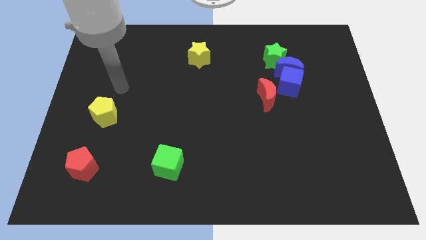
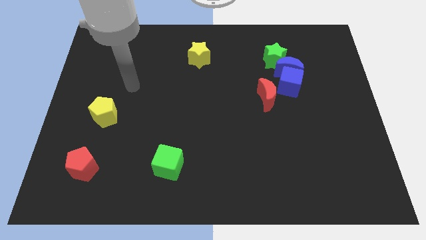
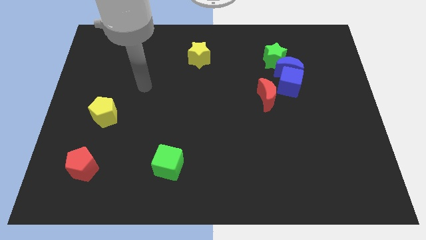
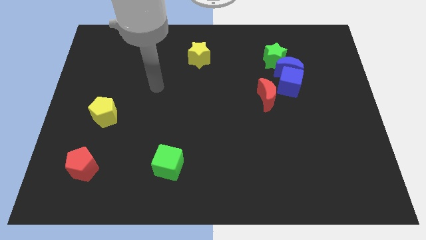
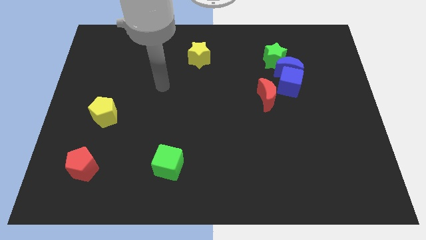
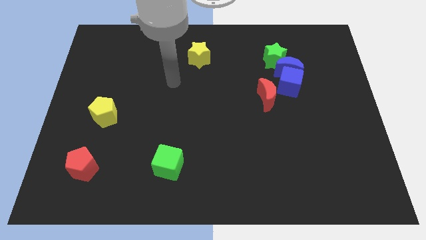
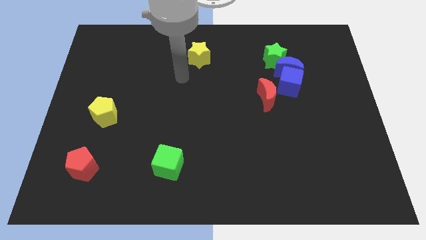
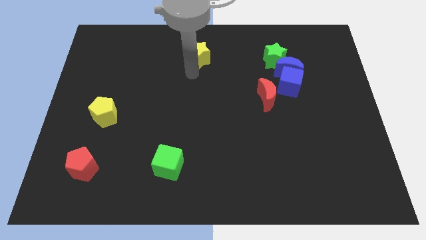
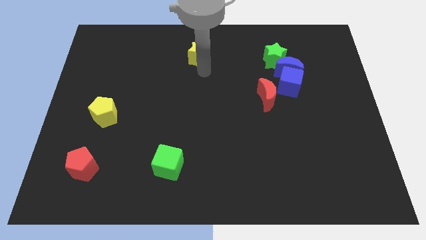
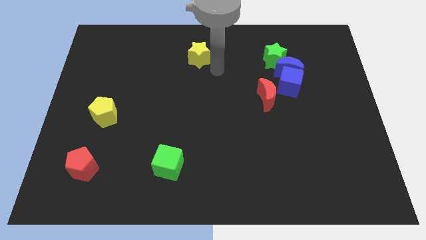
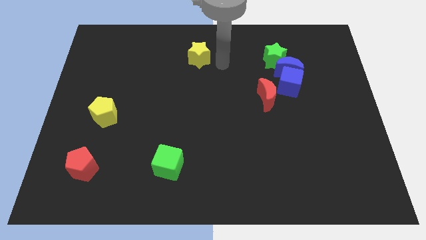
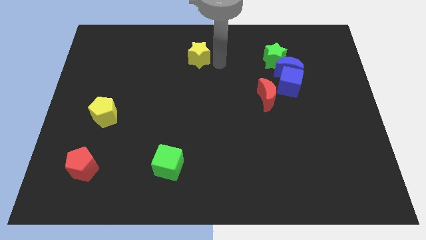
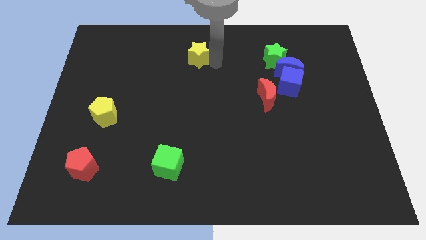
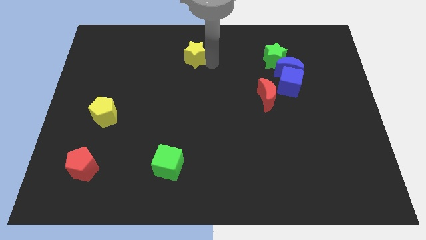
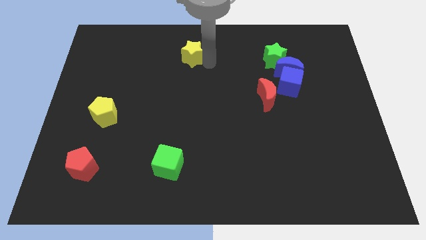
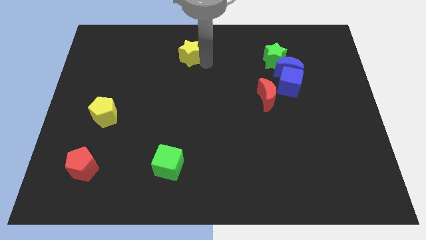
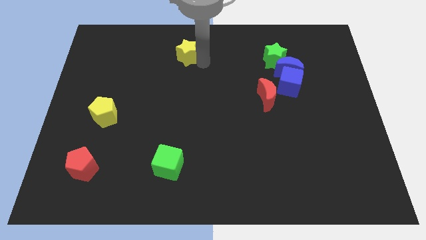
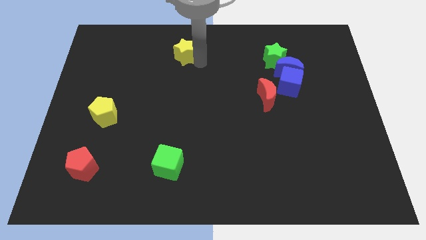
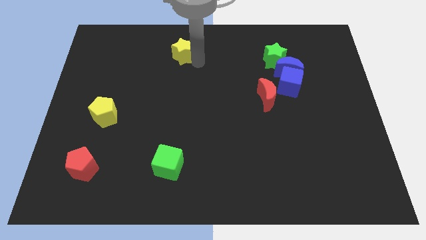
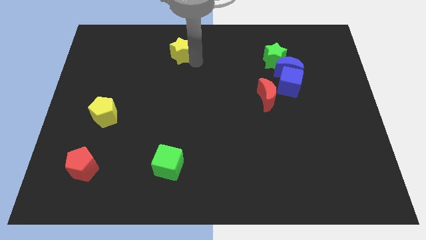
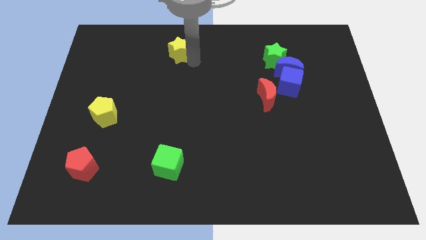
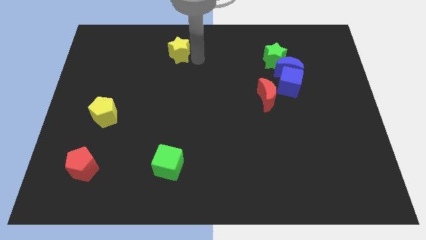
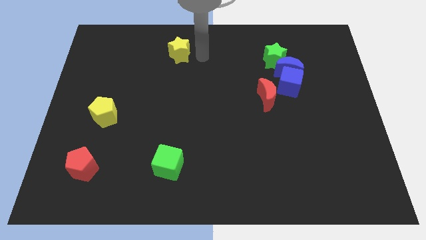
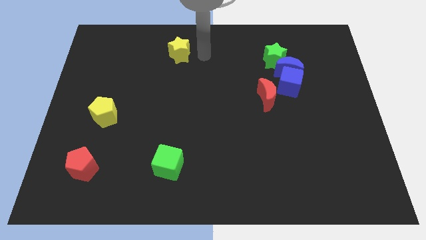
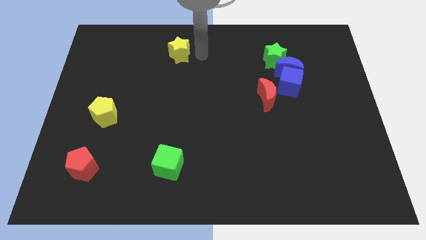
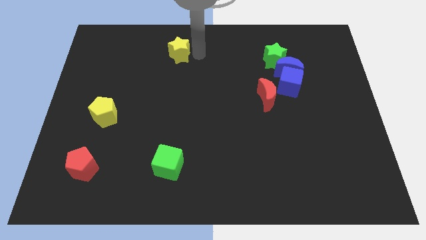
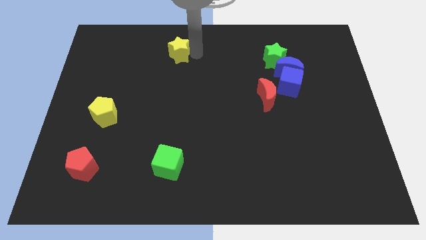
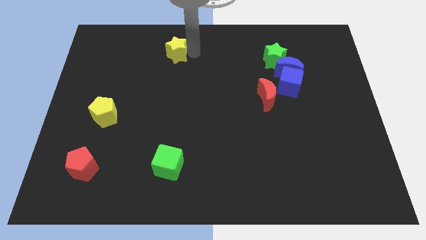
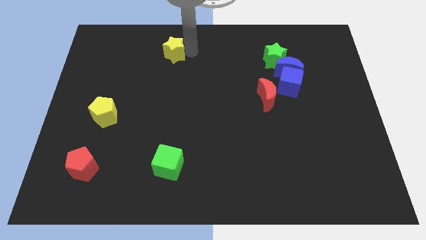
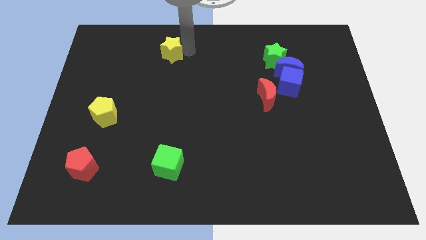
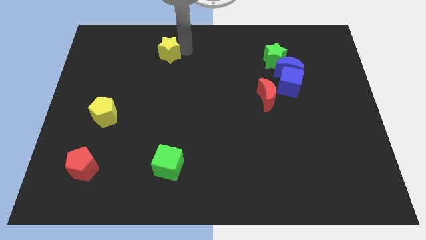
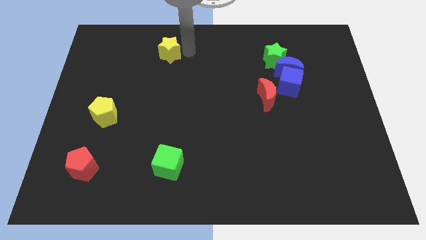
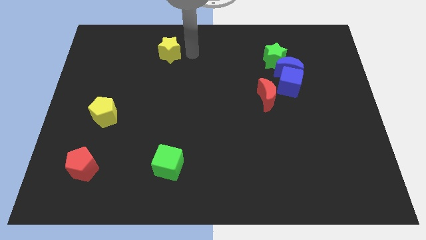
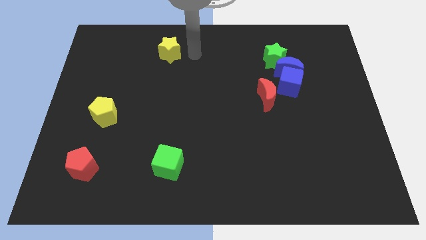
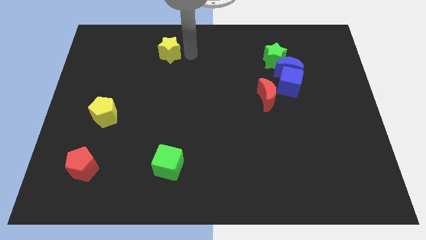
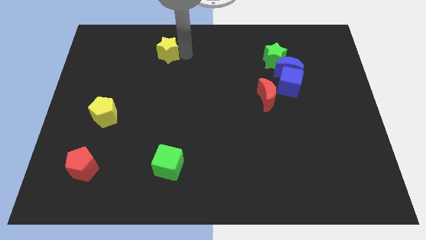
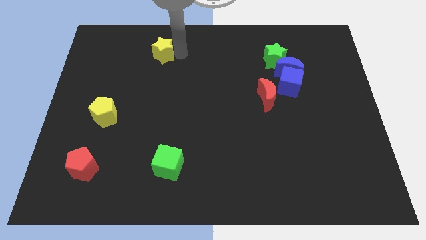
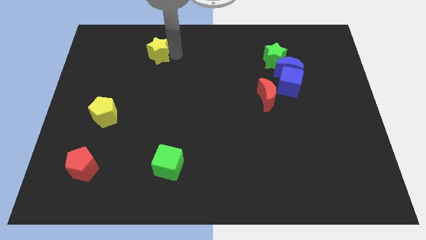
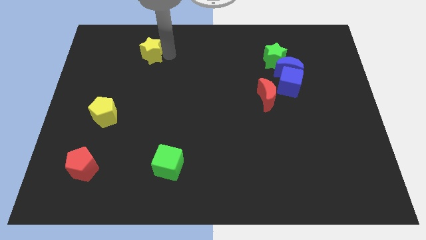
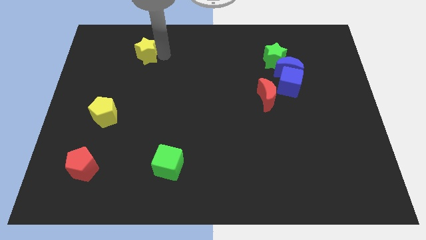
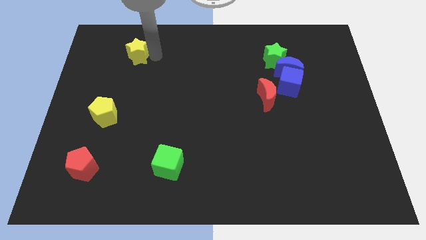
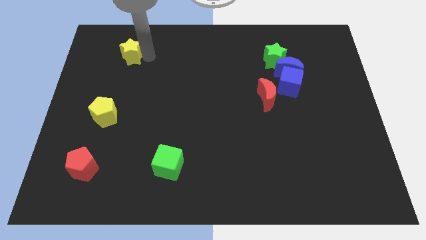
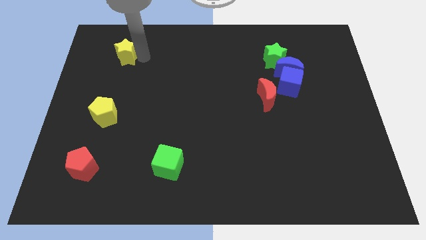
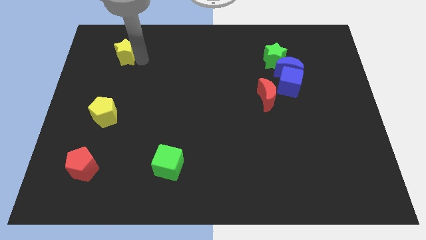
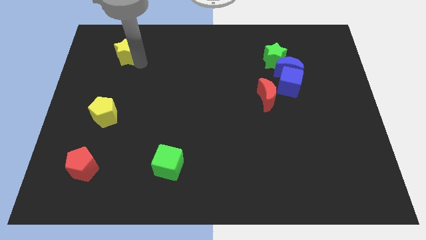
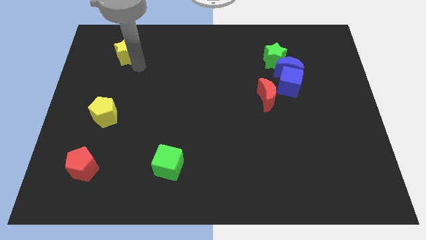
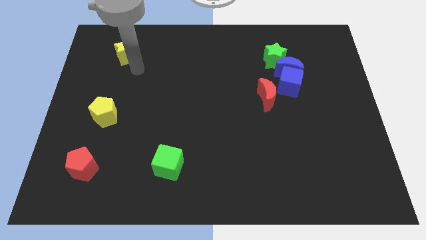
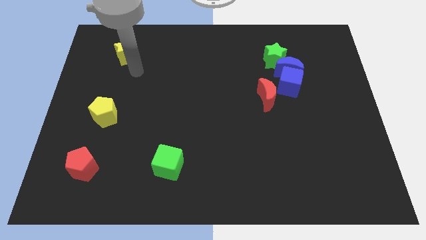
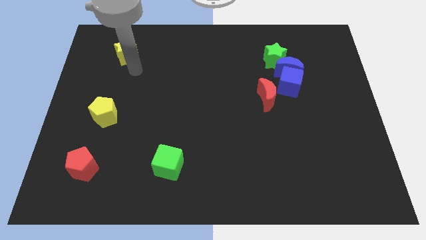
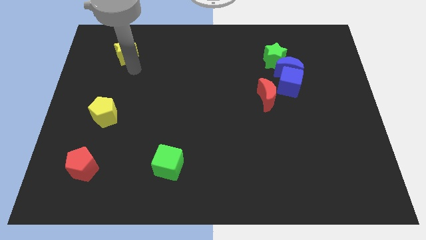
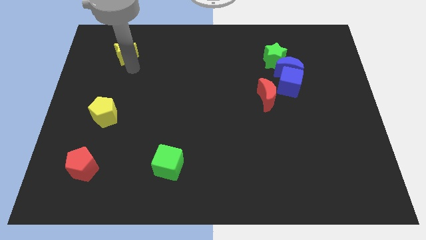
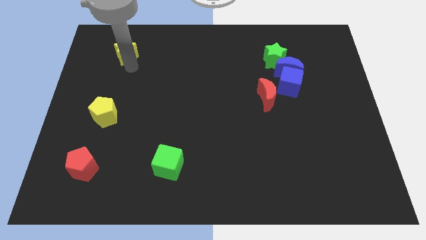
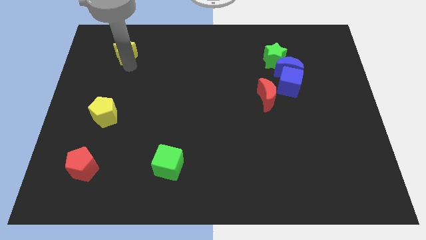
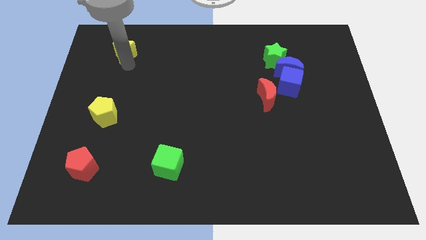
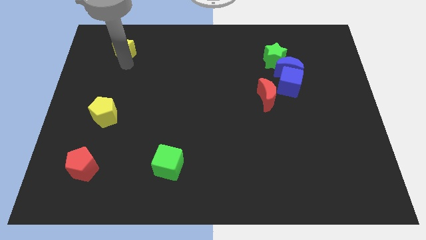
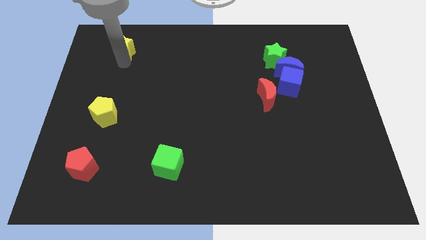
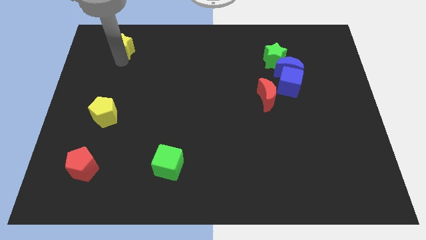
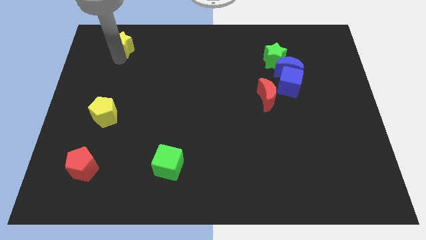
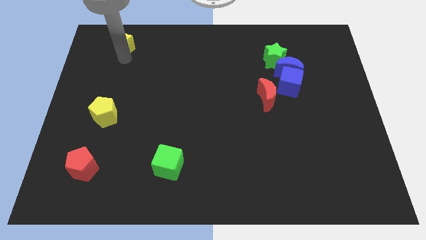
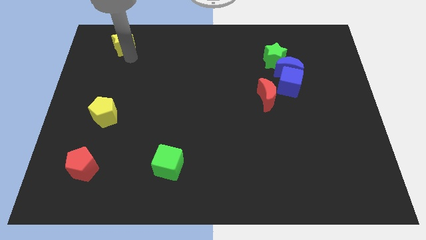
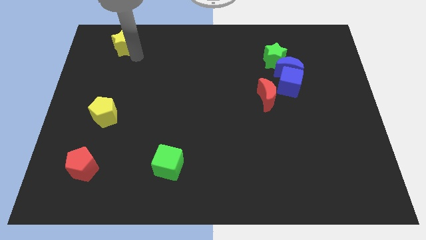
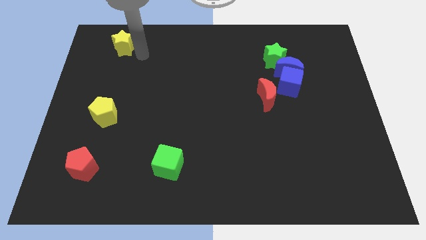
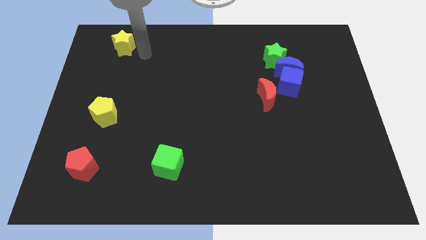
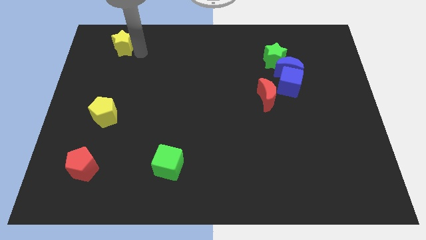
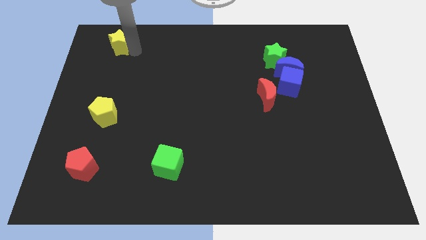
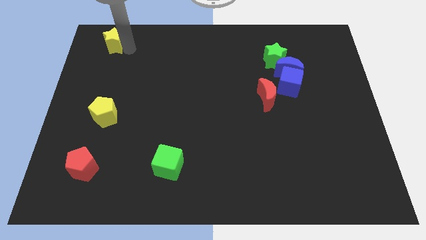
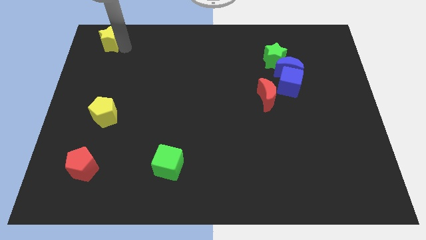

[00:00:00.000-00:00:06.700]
push the yellow star to the upper left corner
